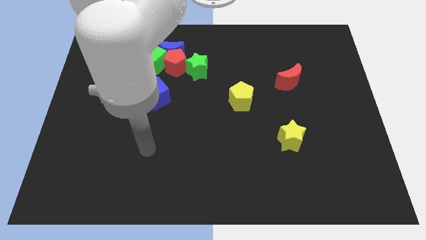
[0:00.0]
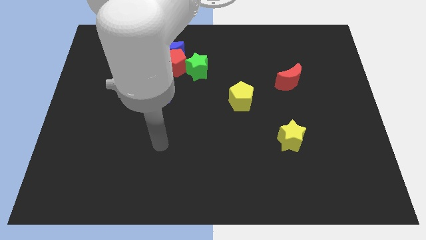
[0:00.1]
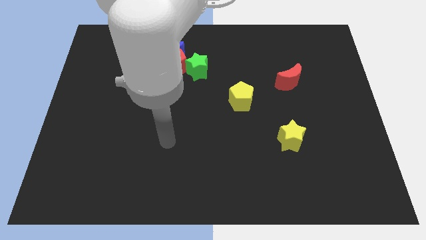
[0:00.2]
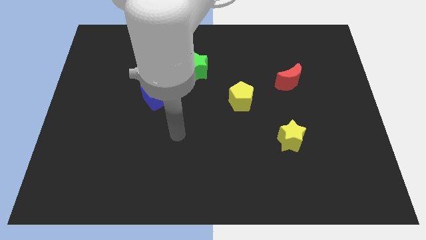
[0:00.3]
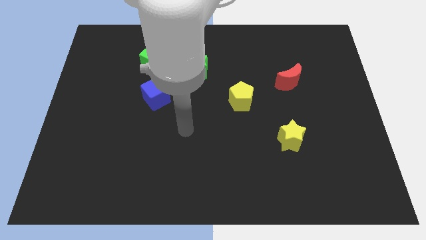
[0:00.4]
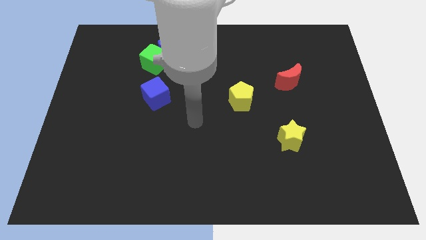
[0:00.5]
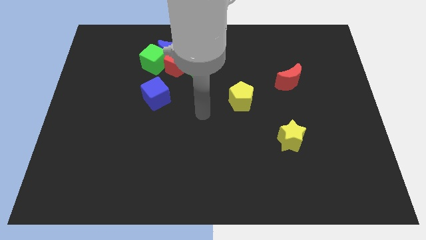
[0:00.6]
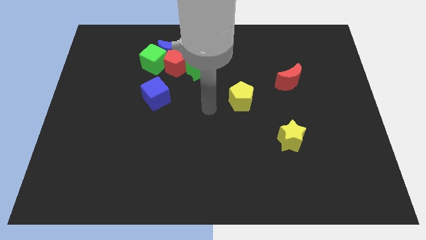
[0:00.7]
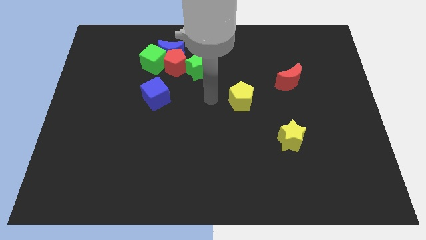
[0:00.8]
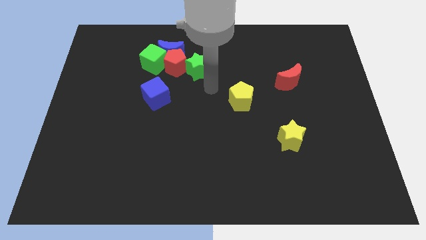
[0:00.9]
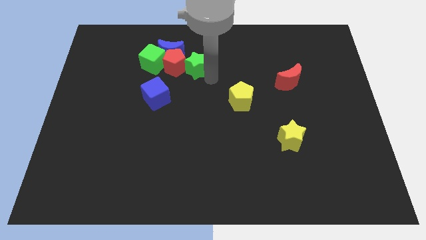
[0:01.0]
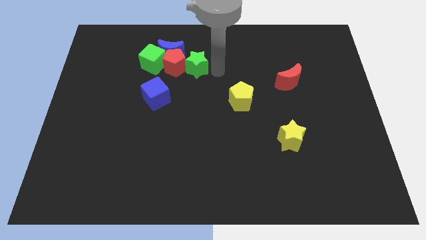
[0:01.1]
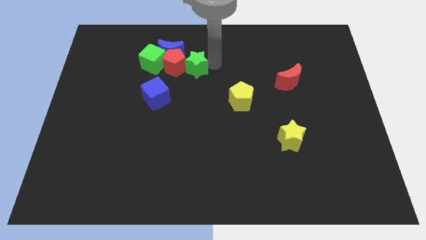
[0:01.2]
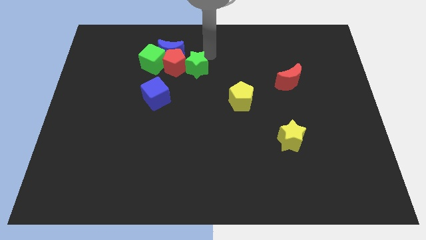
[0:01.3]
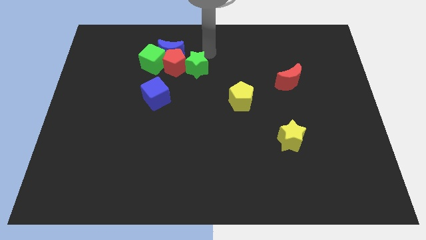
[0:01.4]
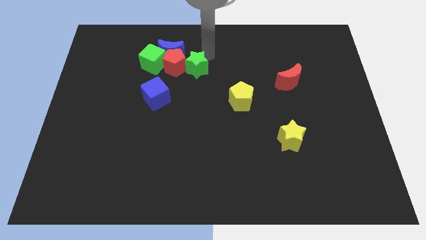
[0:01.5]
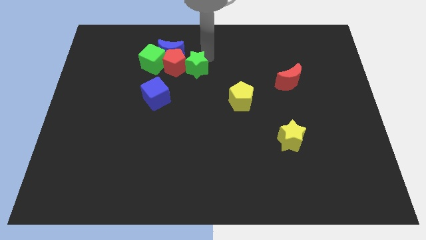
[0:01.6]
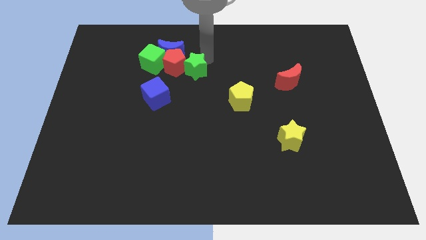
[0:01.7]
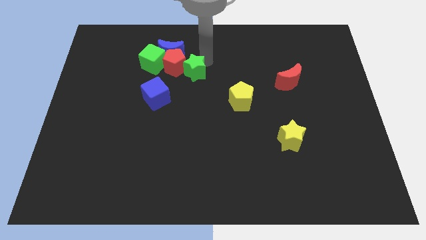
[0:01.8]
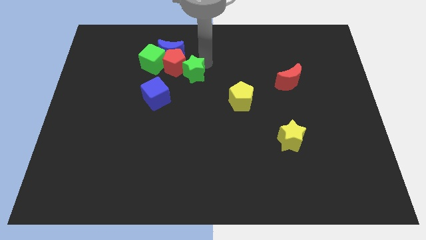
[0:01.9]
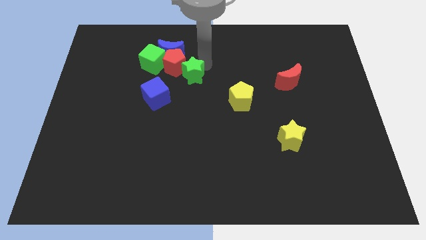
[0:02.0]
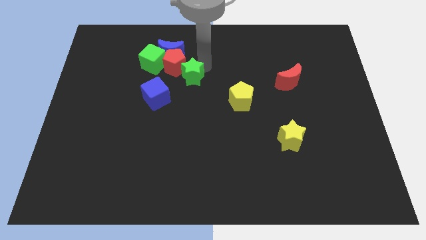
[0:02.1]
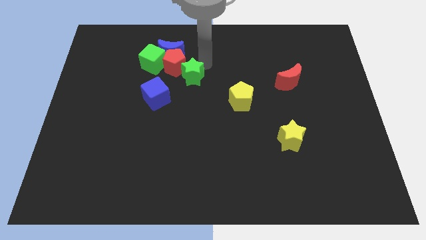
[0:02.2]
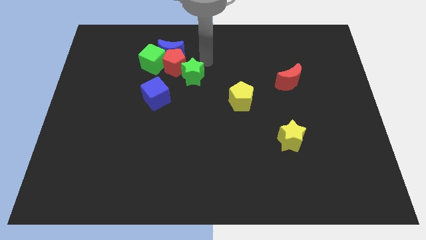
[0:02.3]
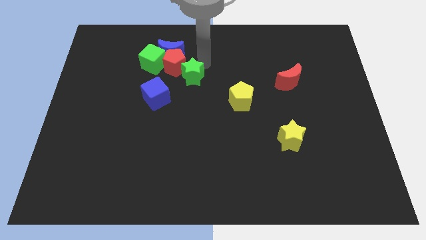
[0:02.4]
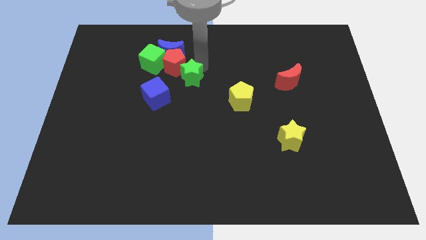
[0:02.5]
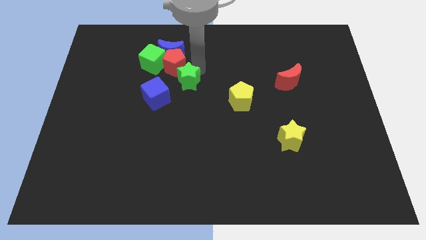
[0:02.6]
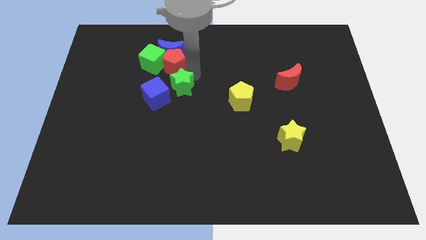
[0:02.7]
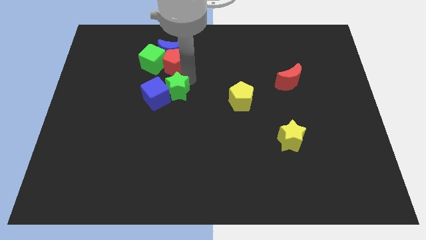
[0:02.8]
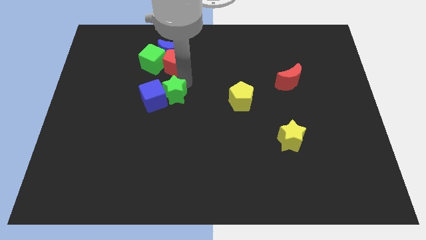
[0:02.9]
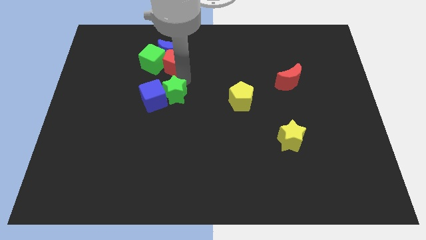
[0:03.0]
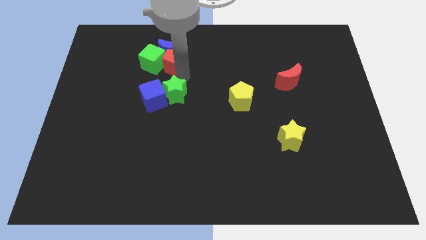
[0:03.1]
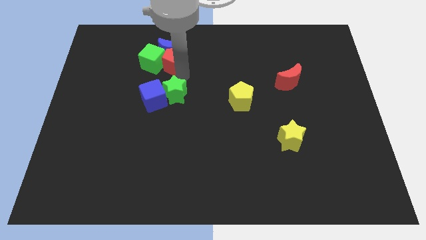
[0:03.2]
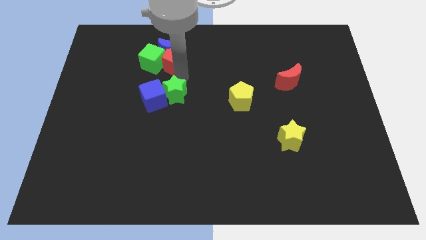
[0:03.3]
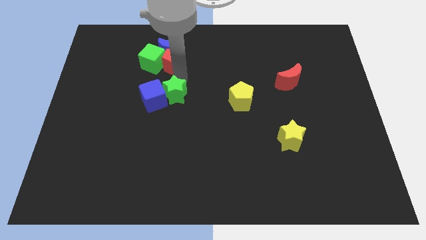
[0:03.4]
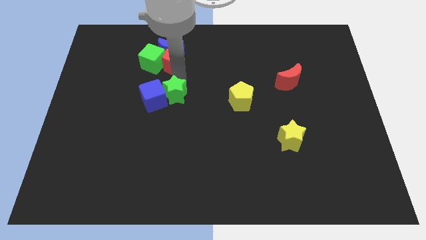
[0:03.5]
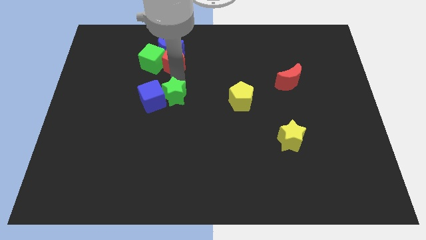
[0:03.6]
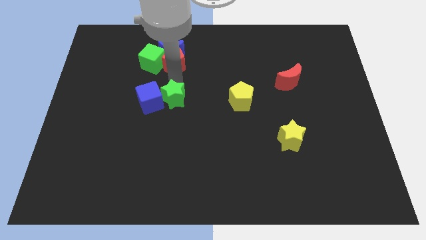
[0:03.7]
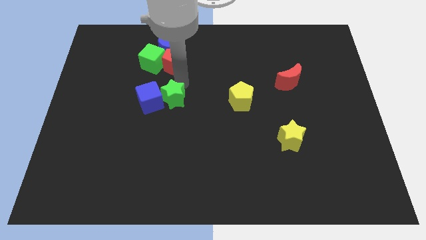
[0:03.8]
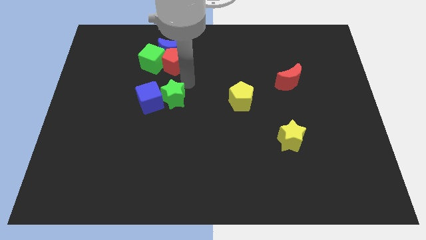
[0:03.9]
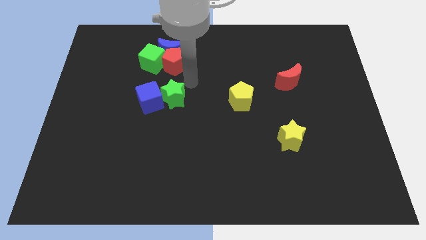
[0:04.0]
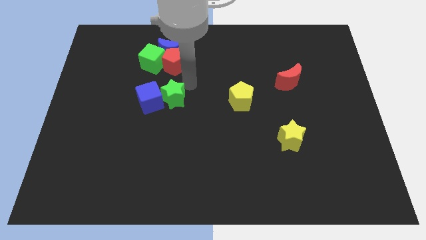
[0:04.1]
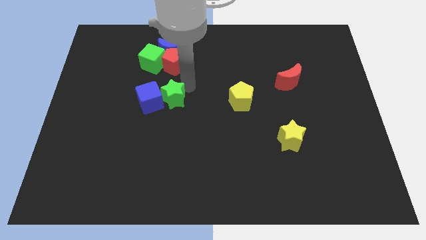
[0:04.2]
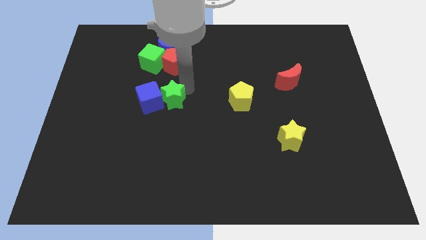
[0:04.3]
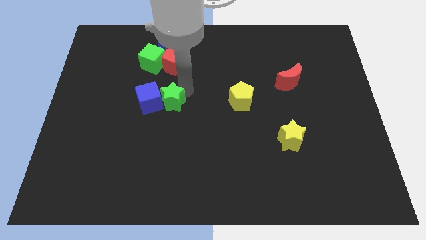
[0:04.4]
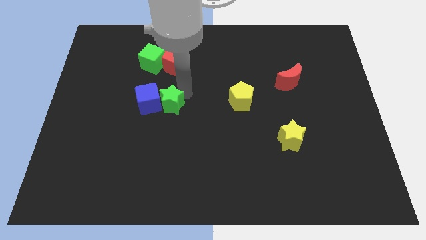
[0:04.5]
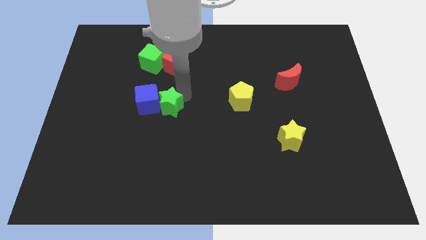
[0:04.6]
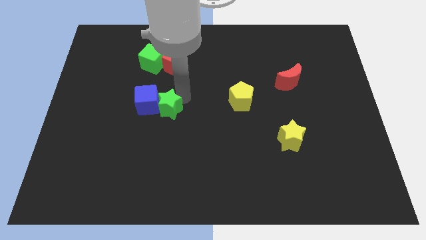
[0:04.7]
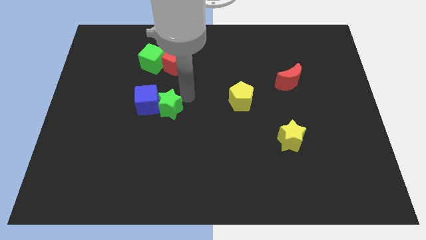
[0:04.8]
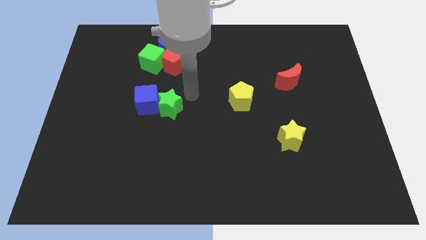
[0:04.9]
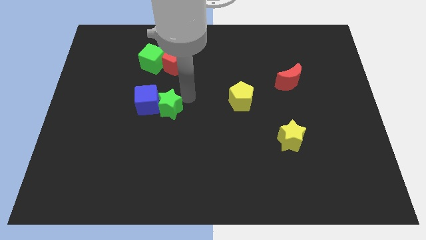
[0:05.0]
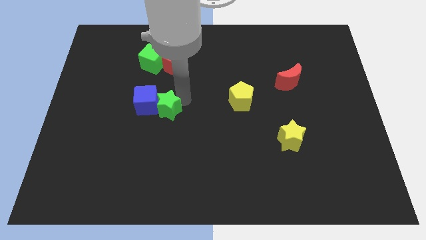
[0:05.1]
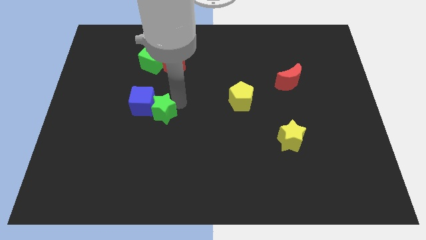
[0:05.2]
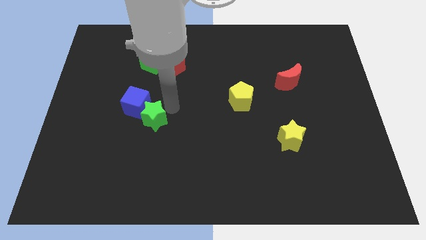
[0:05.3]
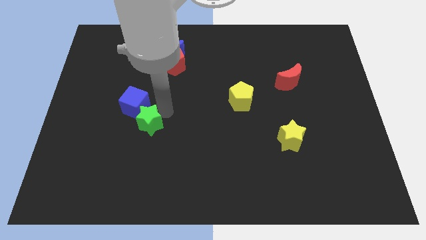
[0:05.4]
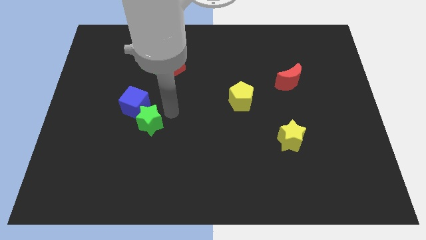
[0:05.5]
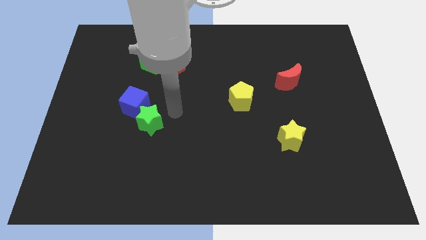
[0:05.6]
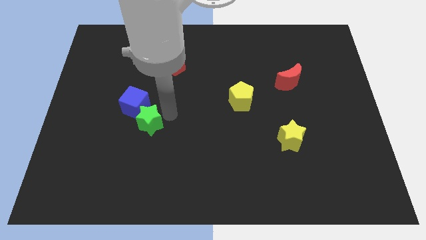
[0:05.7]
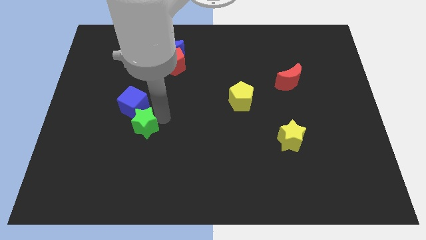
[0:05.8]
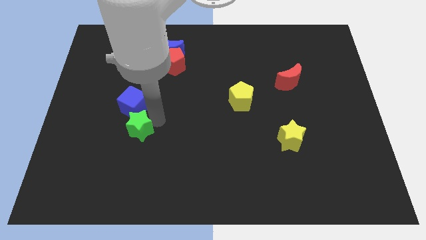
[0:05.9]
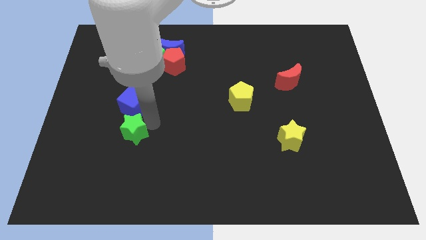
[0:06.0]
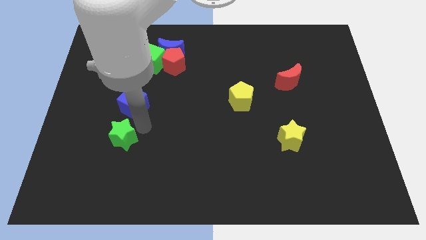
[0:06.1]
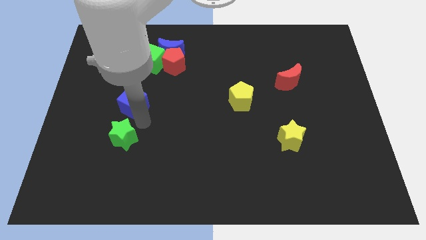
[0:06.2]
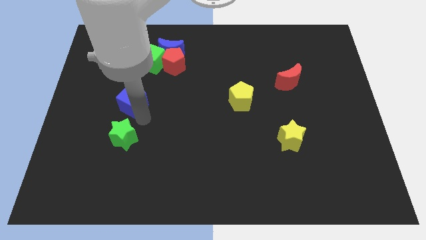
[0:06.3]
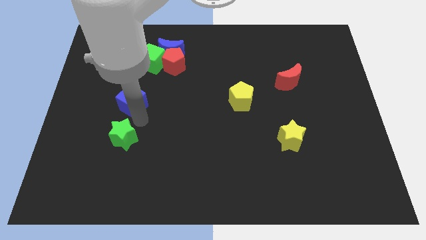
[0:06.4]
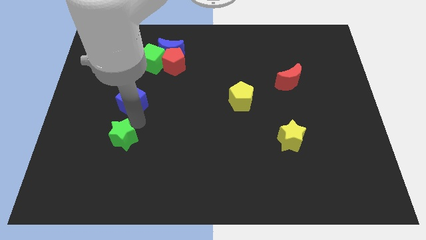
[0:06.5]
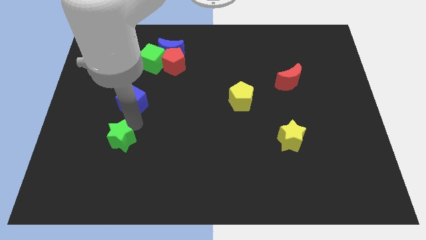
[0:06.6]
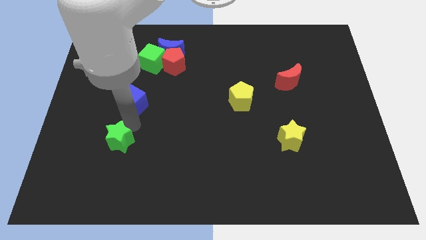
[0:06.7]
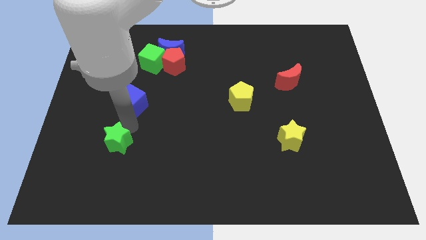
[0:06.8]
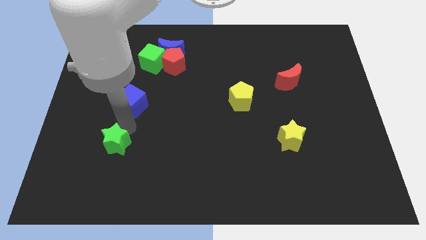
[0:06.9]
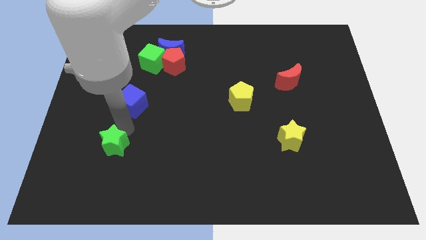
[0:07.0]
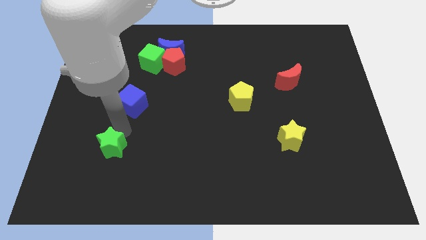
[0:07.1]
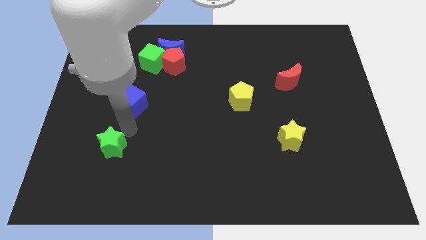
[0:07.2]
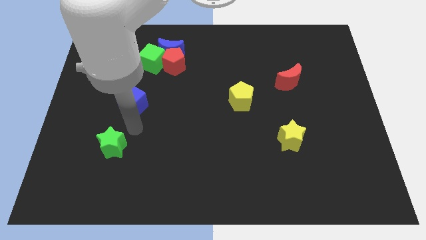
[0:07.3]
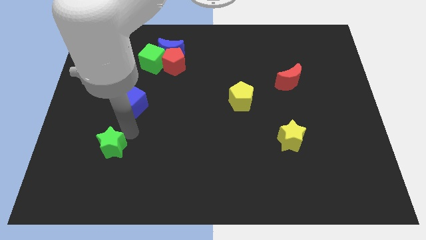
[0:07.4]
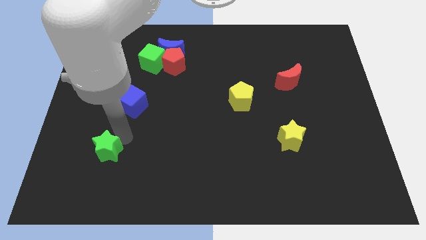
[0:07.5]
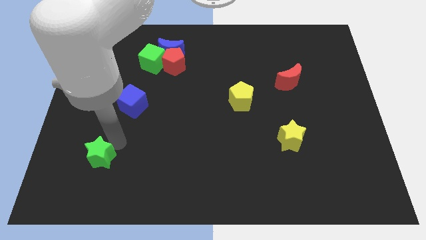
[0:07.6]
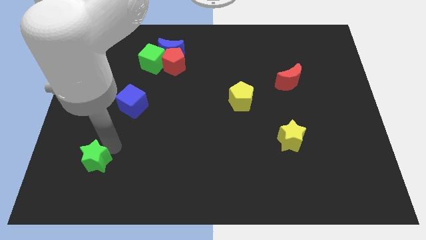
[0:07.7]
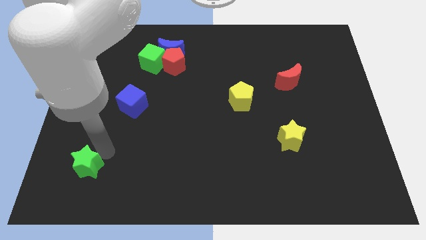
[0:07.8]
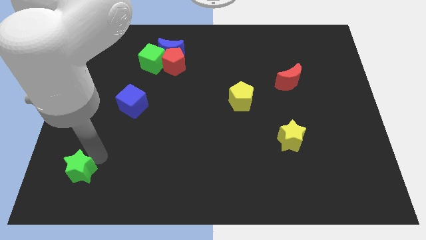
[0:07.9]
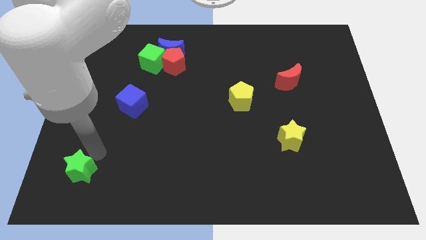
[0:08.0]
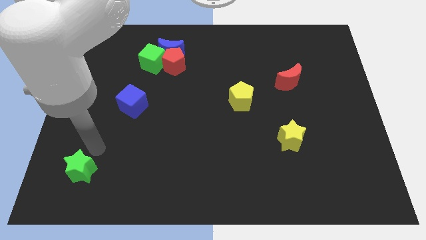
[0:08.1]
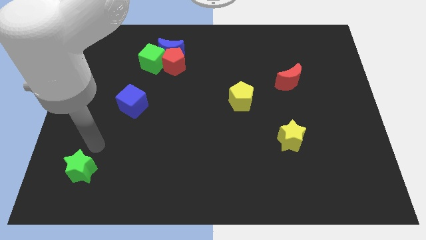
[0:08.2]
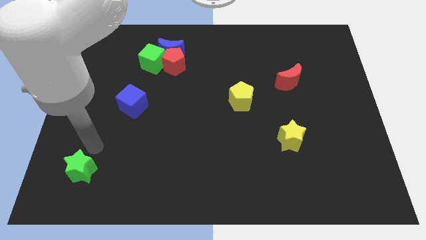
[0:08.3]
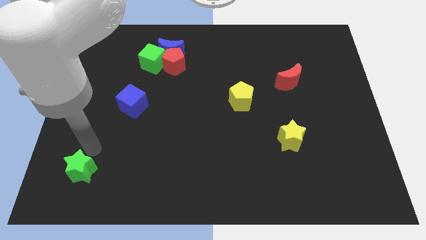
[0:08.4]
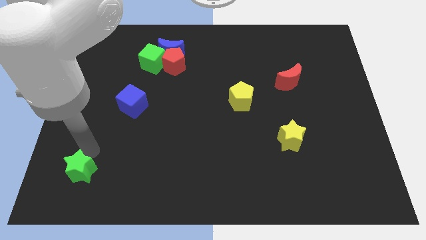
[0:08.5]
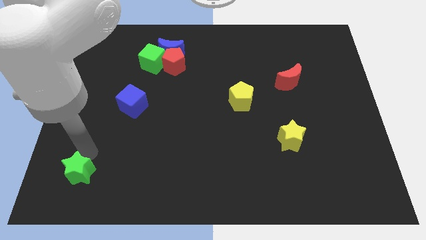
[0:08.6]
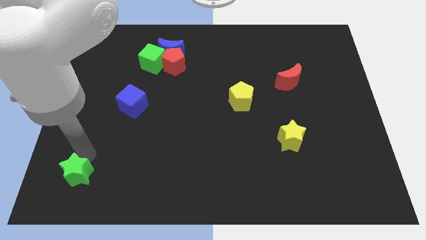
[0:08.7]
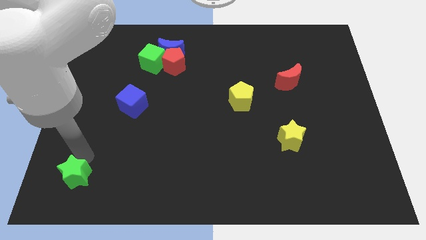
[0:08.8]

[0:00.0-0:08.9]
move the green star to the bottom left corner
